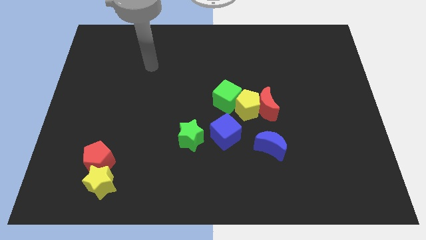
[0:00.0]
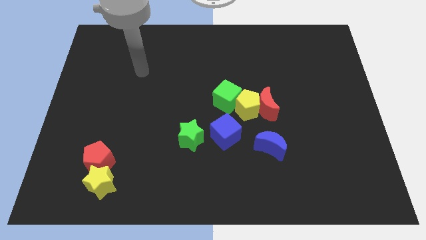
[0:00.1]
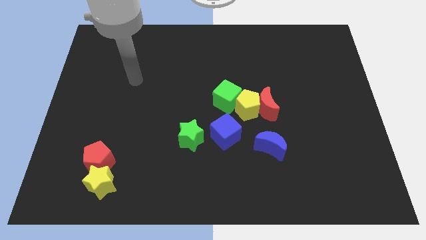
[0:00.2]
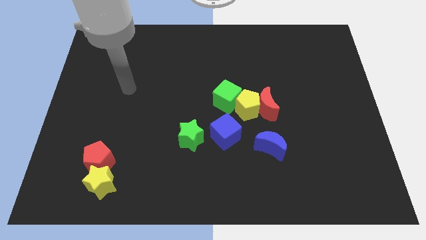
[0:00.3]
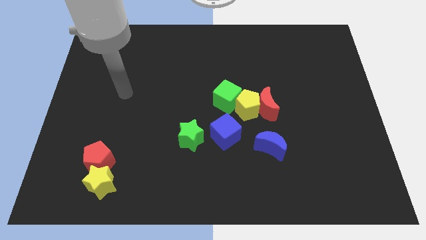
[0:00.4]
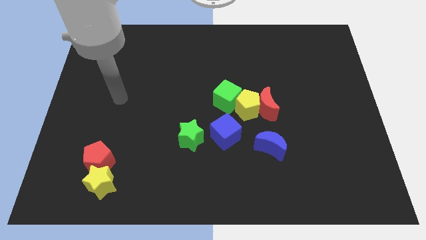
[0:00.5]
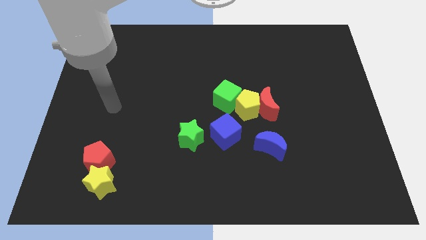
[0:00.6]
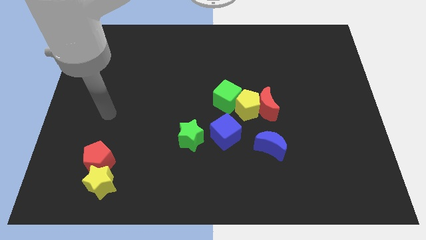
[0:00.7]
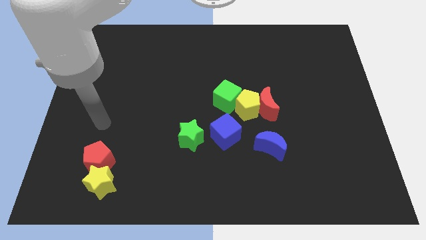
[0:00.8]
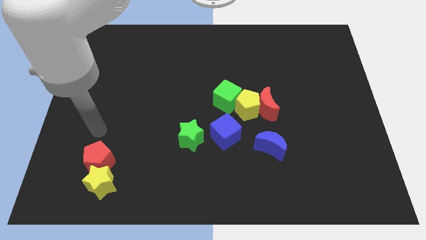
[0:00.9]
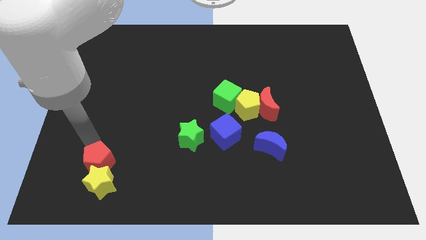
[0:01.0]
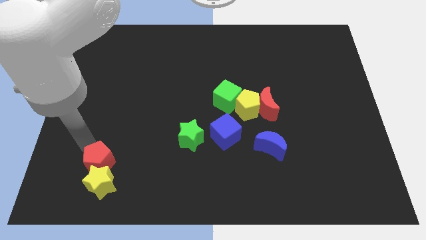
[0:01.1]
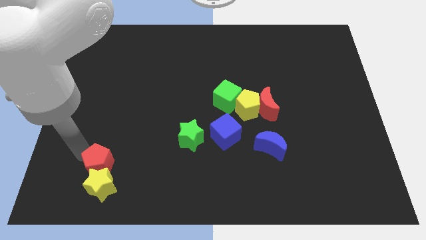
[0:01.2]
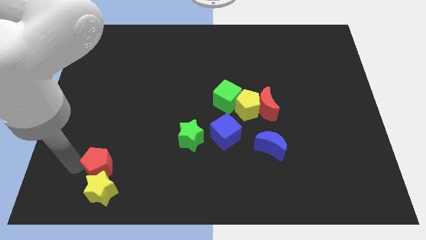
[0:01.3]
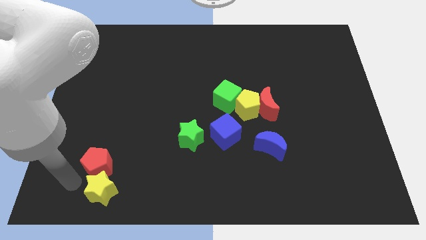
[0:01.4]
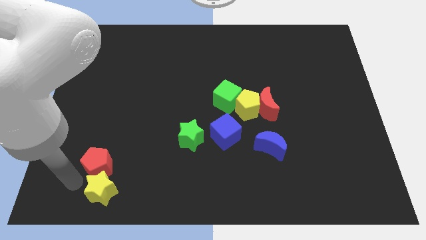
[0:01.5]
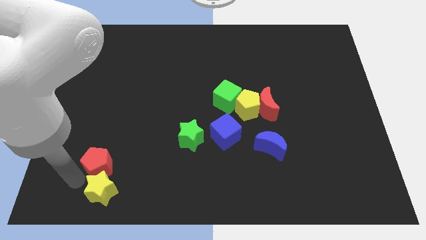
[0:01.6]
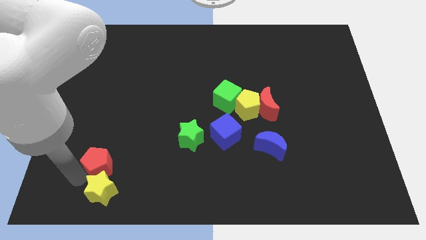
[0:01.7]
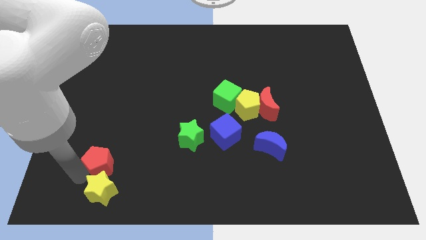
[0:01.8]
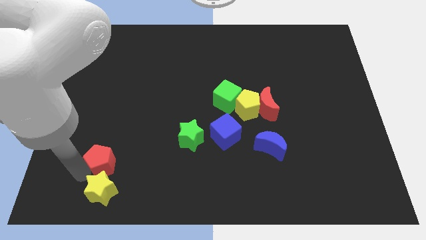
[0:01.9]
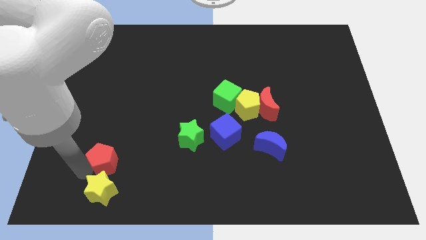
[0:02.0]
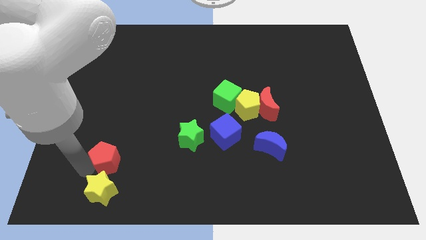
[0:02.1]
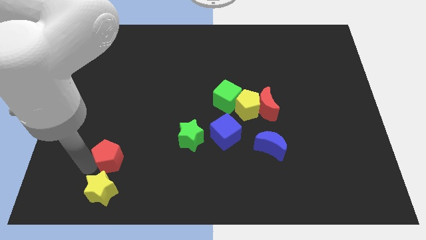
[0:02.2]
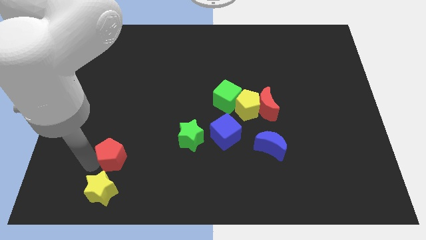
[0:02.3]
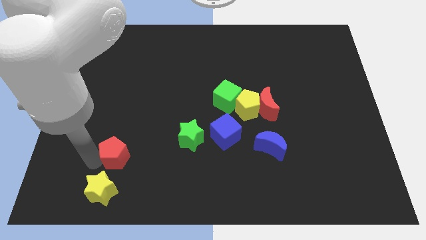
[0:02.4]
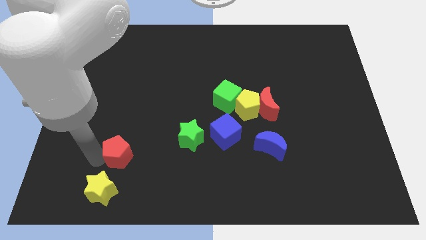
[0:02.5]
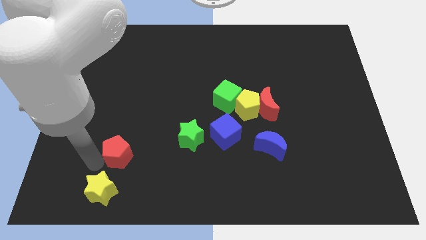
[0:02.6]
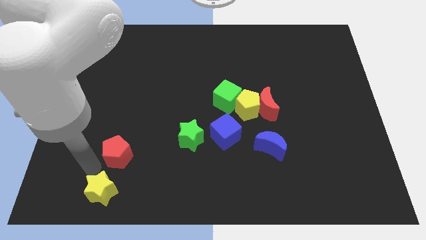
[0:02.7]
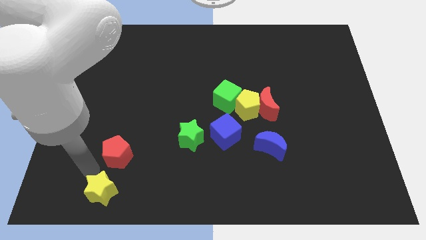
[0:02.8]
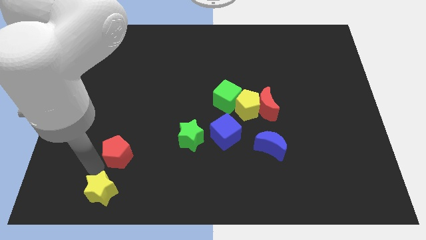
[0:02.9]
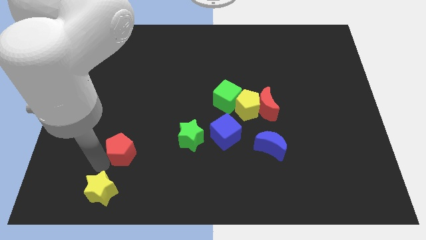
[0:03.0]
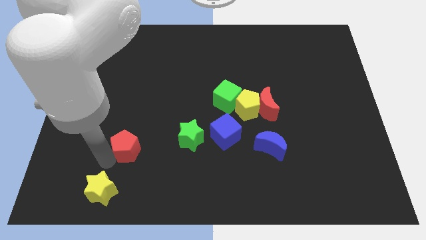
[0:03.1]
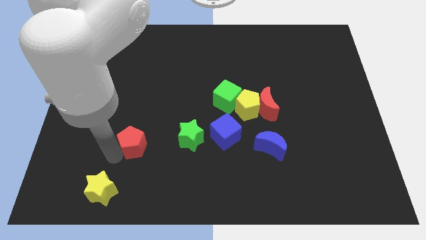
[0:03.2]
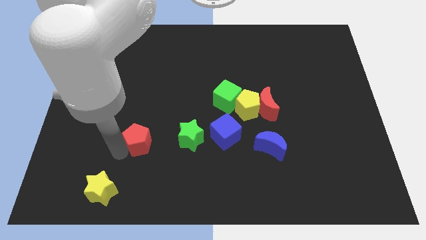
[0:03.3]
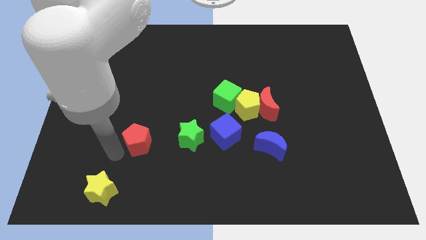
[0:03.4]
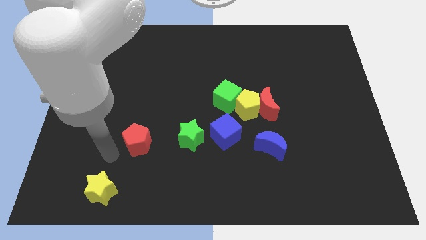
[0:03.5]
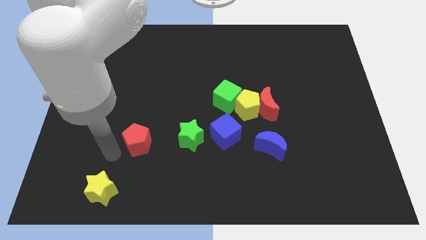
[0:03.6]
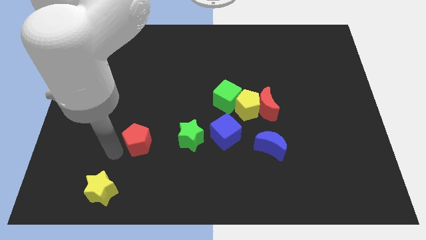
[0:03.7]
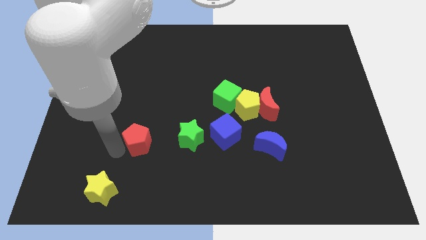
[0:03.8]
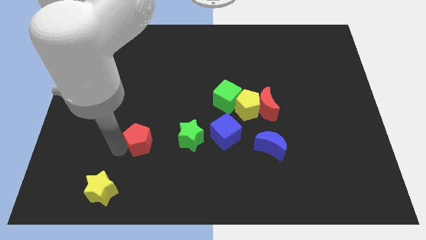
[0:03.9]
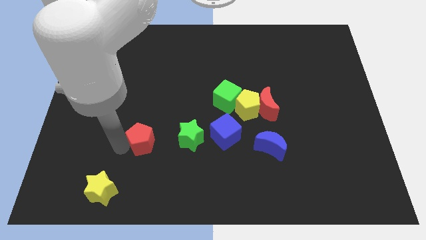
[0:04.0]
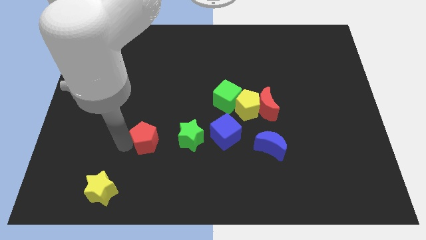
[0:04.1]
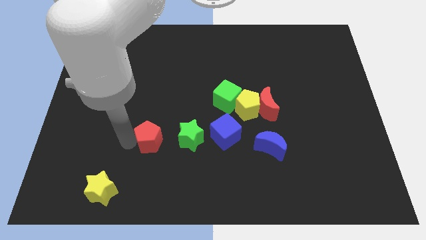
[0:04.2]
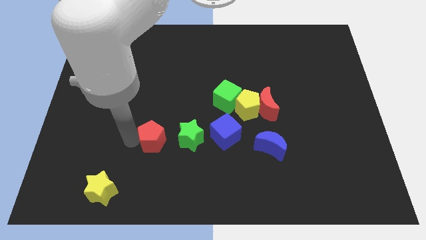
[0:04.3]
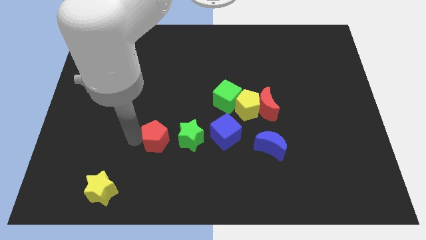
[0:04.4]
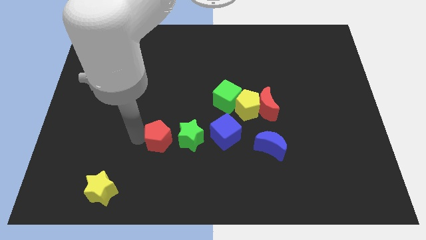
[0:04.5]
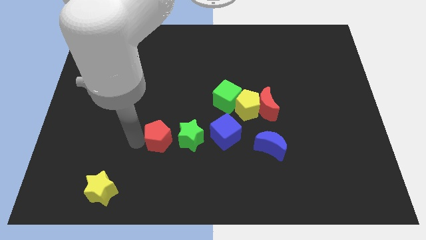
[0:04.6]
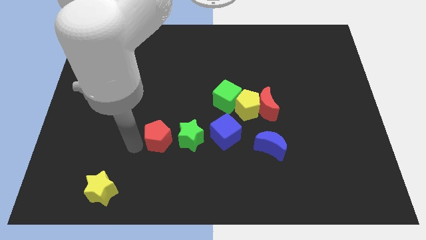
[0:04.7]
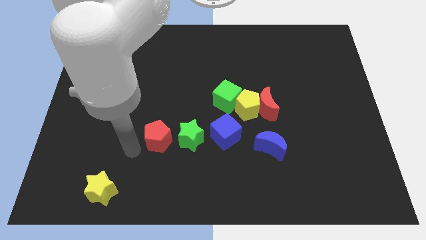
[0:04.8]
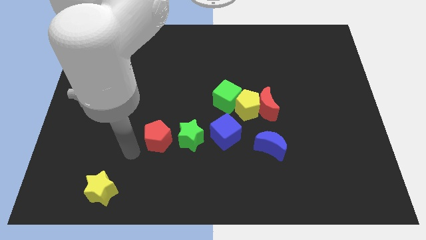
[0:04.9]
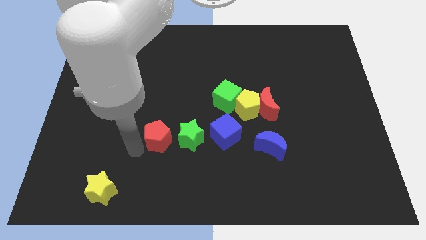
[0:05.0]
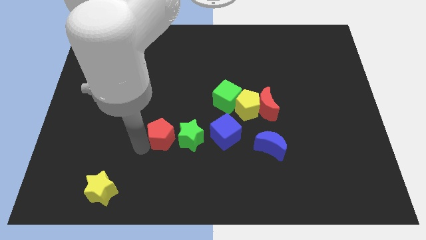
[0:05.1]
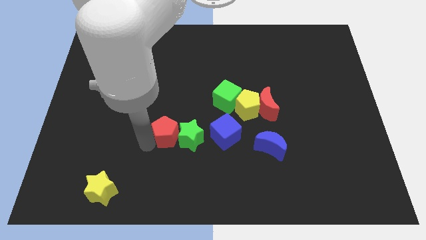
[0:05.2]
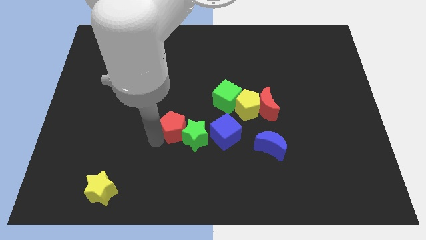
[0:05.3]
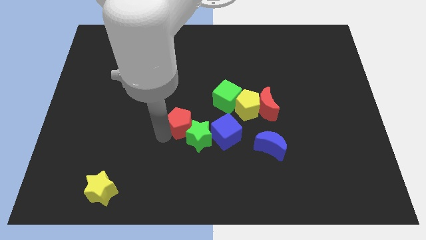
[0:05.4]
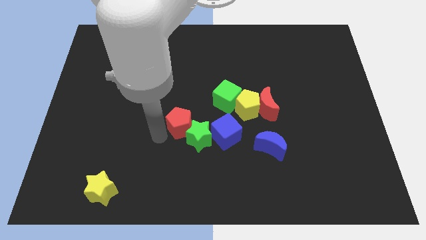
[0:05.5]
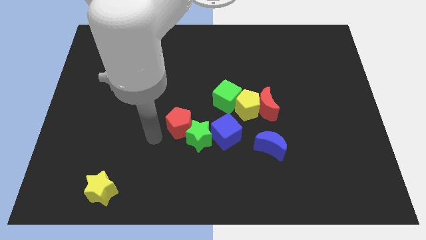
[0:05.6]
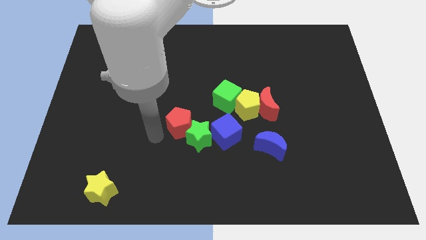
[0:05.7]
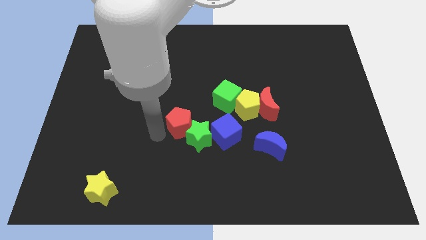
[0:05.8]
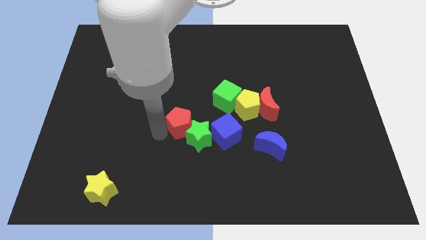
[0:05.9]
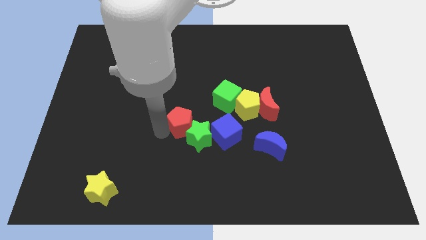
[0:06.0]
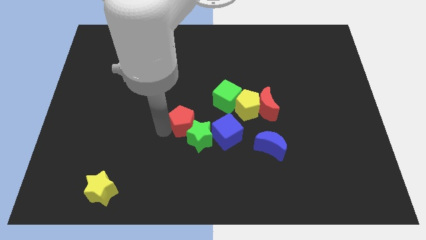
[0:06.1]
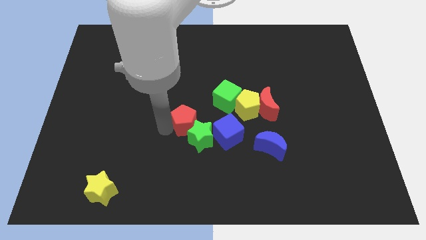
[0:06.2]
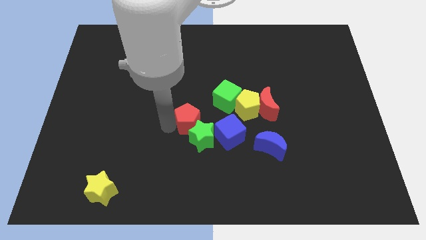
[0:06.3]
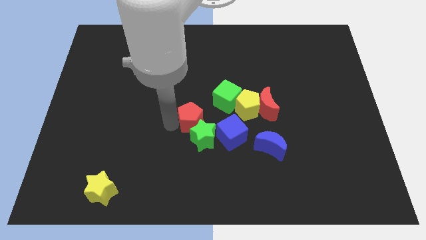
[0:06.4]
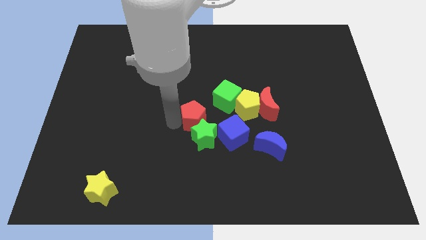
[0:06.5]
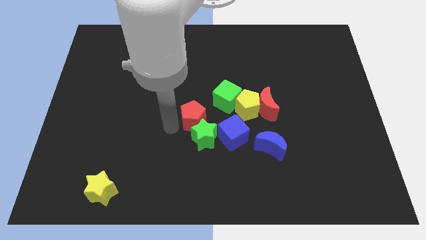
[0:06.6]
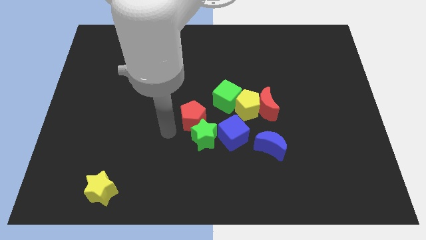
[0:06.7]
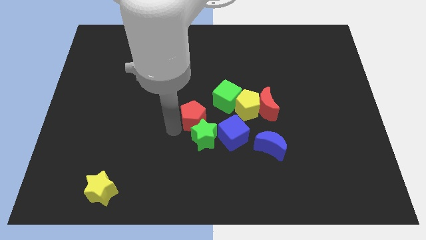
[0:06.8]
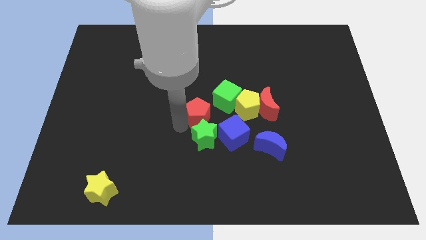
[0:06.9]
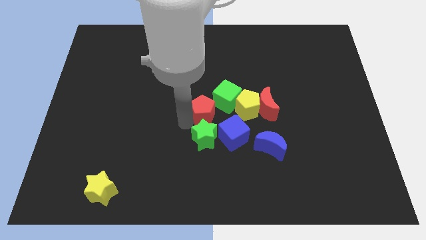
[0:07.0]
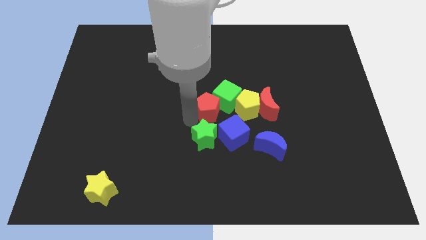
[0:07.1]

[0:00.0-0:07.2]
slide the red pentagon towards the green cube

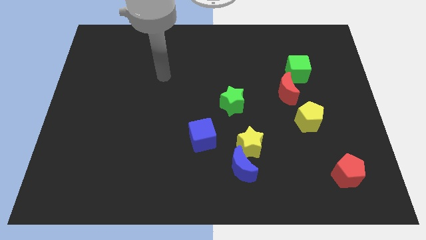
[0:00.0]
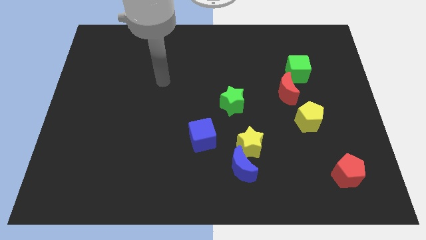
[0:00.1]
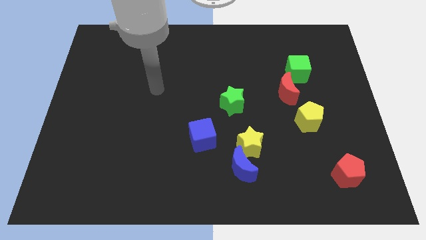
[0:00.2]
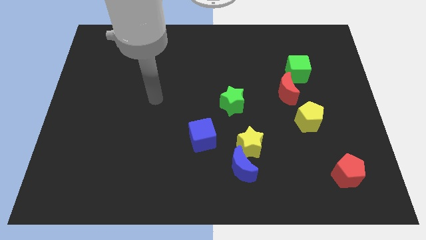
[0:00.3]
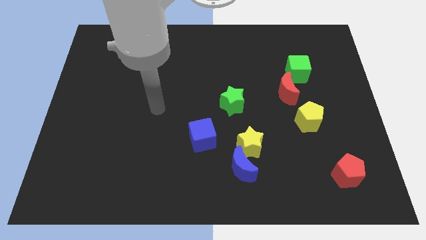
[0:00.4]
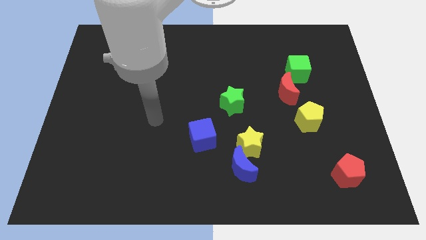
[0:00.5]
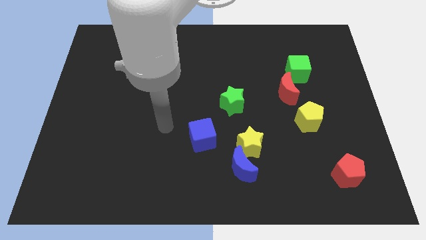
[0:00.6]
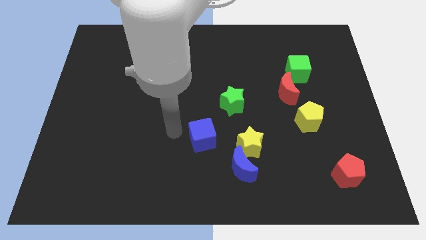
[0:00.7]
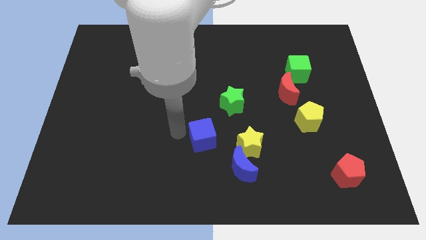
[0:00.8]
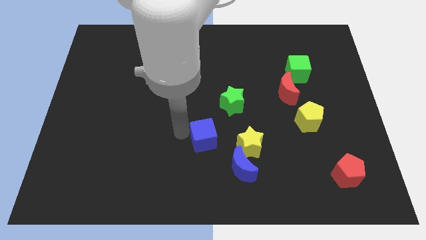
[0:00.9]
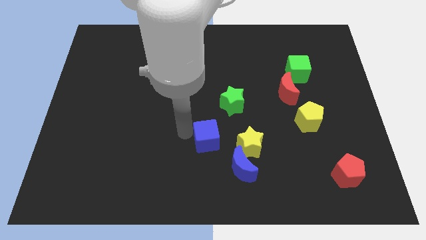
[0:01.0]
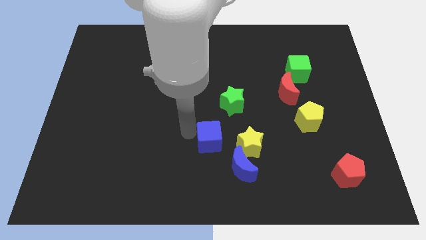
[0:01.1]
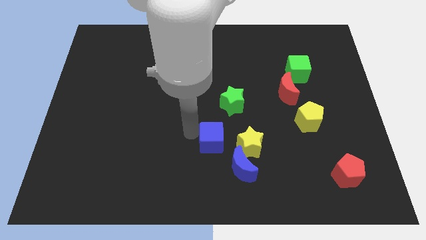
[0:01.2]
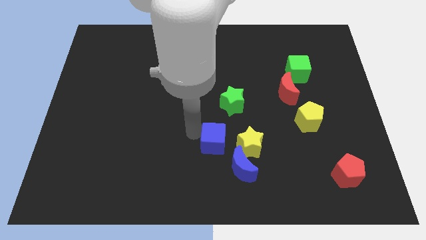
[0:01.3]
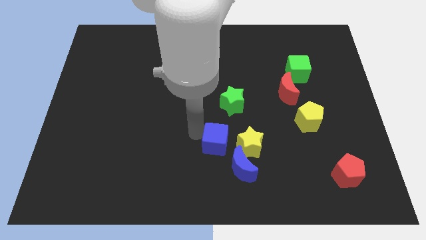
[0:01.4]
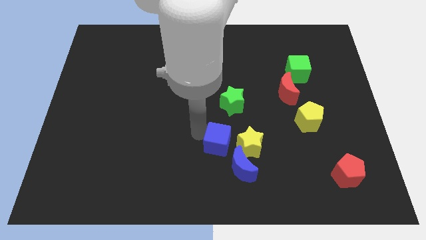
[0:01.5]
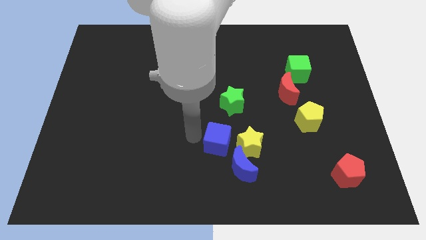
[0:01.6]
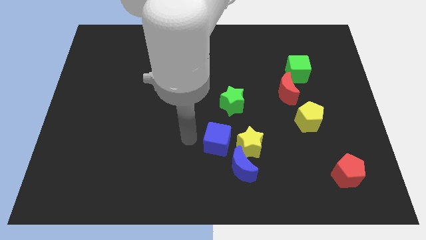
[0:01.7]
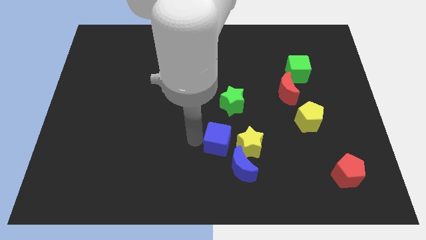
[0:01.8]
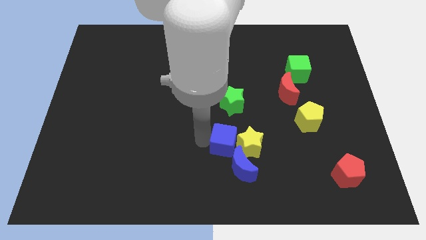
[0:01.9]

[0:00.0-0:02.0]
push the blue cube towards the yellow star
